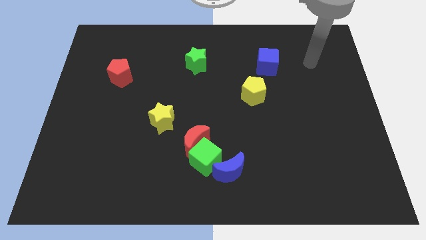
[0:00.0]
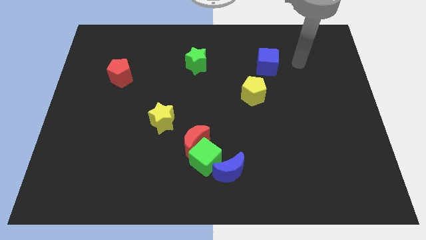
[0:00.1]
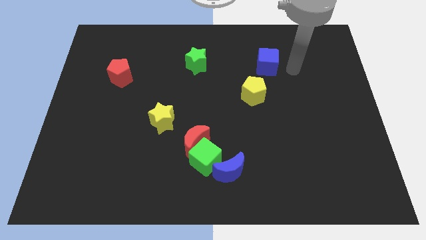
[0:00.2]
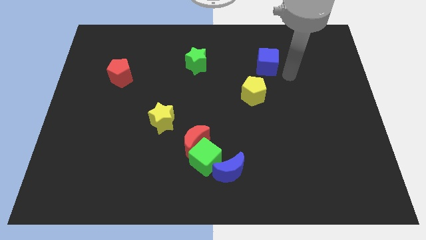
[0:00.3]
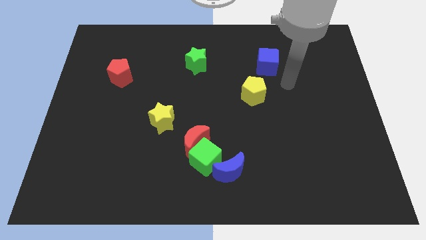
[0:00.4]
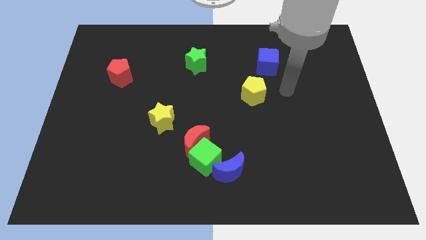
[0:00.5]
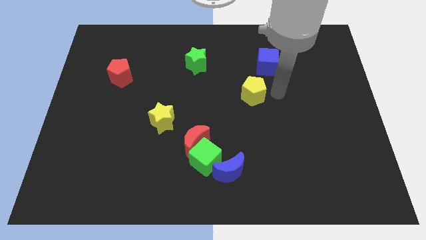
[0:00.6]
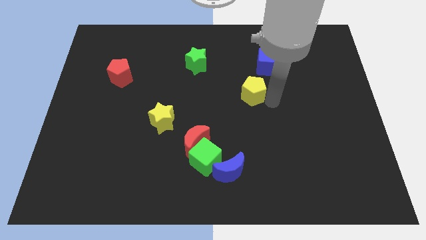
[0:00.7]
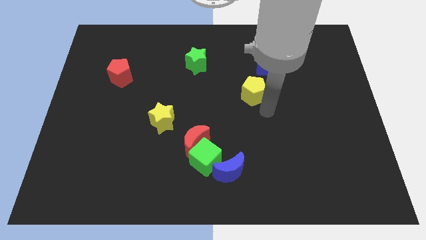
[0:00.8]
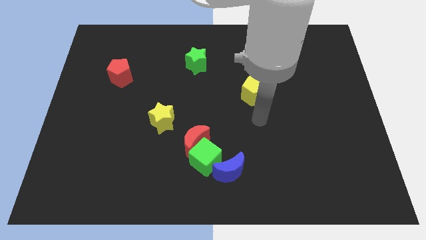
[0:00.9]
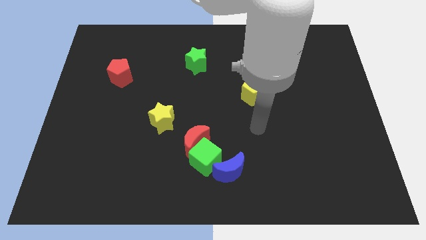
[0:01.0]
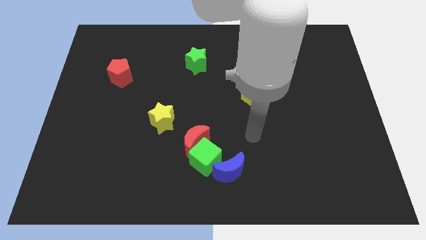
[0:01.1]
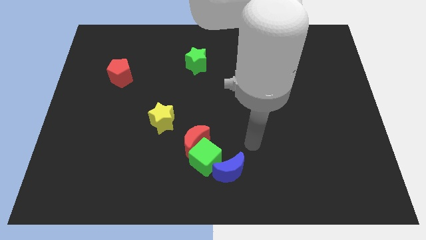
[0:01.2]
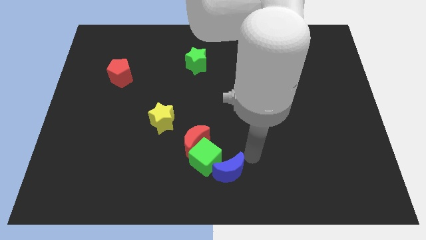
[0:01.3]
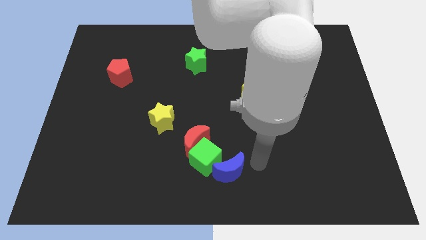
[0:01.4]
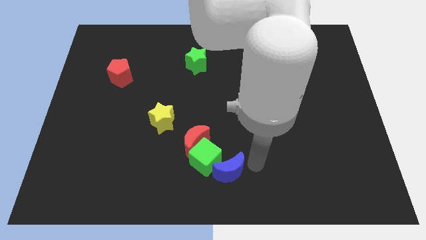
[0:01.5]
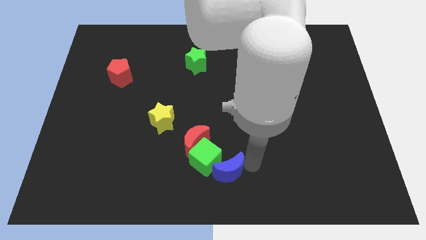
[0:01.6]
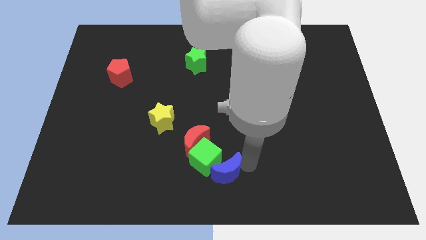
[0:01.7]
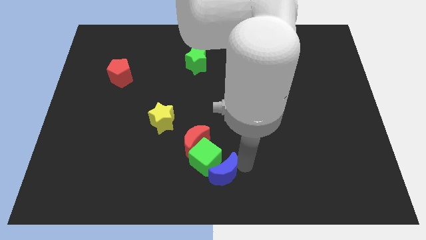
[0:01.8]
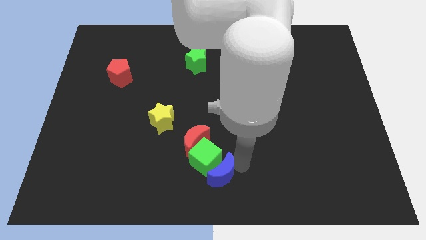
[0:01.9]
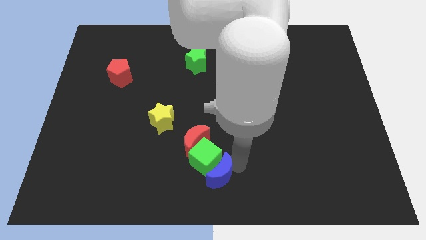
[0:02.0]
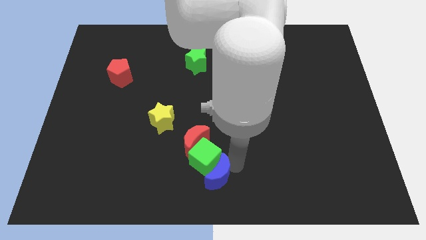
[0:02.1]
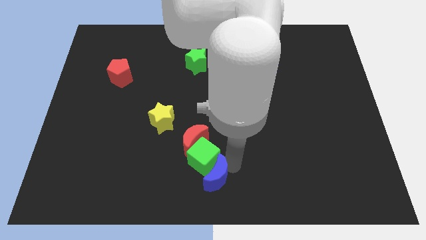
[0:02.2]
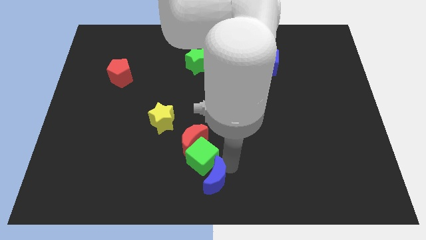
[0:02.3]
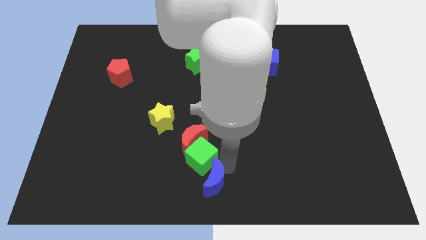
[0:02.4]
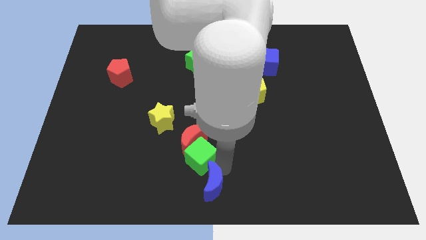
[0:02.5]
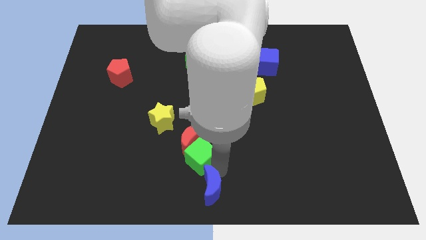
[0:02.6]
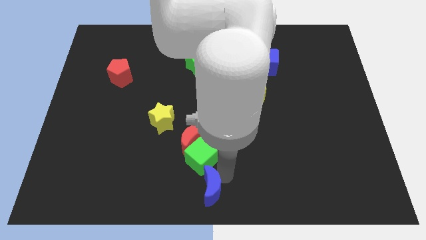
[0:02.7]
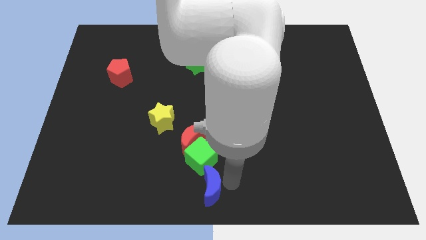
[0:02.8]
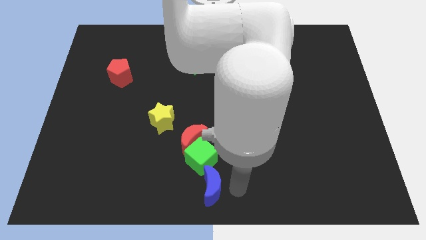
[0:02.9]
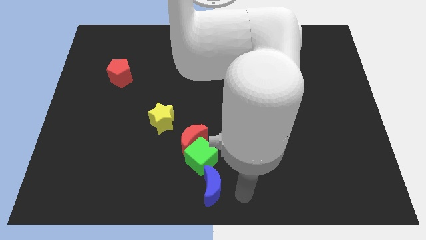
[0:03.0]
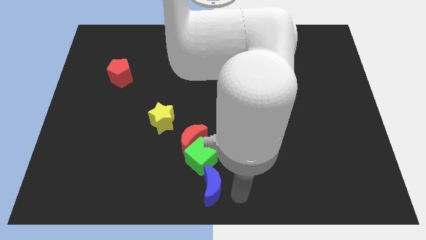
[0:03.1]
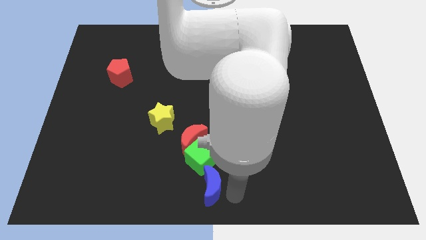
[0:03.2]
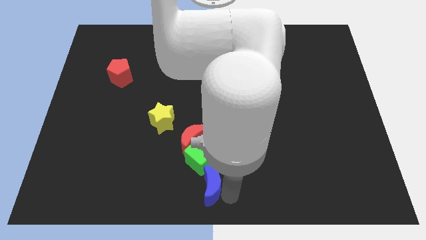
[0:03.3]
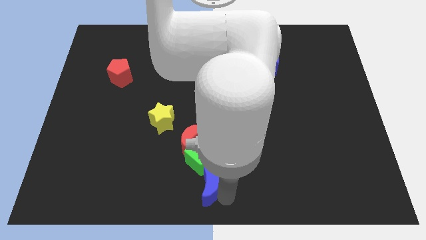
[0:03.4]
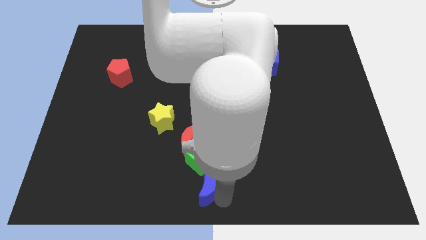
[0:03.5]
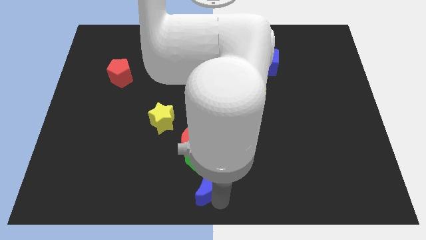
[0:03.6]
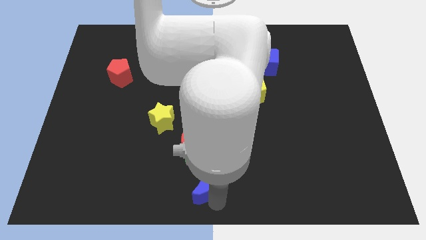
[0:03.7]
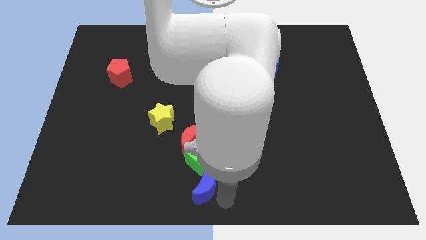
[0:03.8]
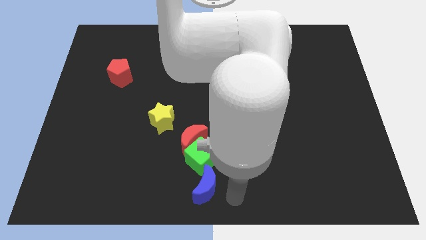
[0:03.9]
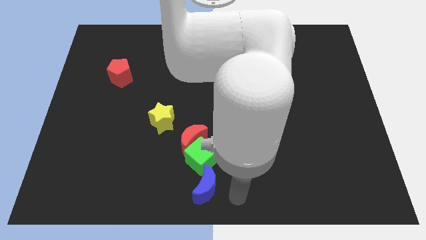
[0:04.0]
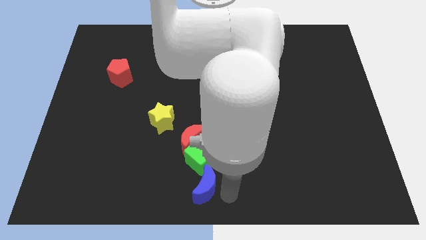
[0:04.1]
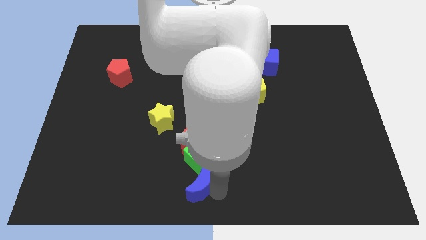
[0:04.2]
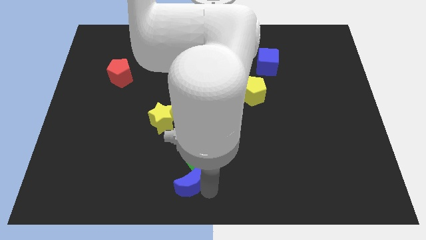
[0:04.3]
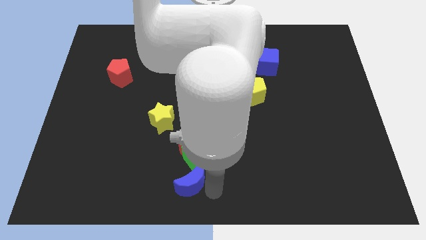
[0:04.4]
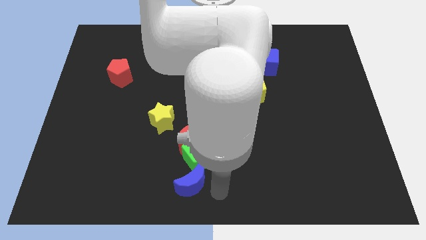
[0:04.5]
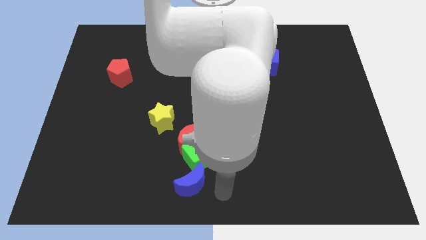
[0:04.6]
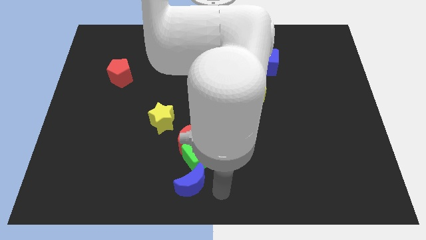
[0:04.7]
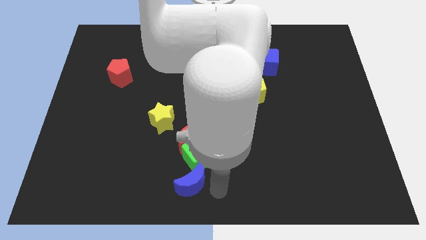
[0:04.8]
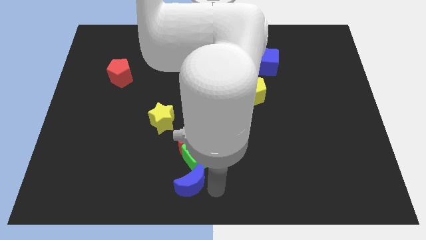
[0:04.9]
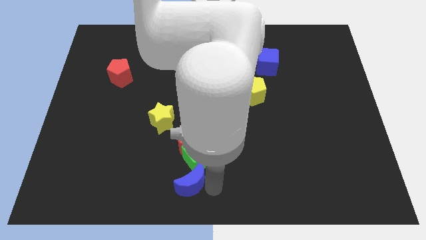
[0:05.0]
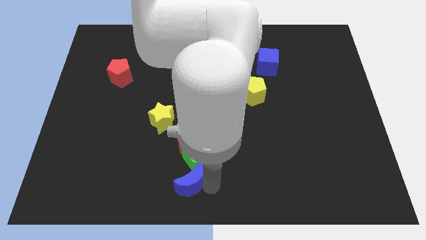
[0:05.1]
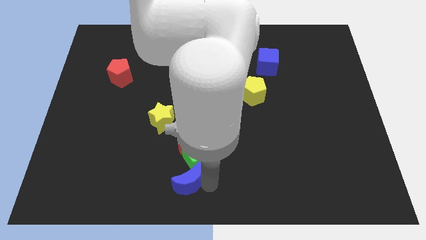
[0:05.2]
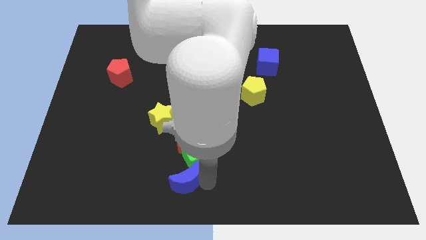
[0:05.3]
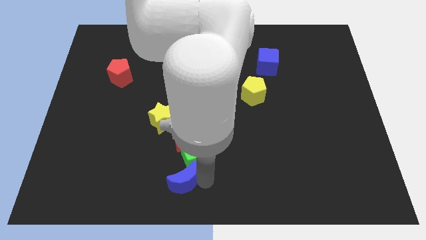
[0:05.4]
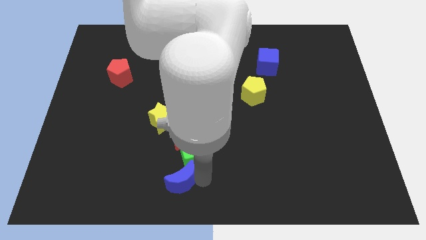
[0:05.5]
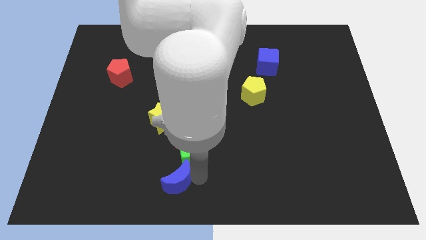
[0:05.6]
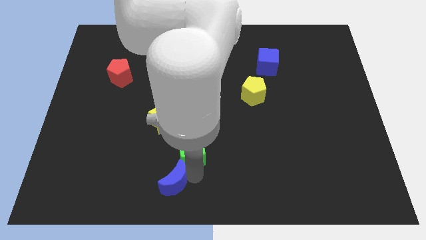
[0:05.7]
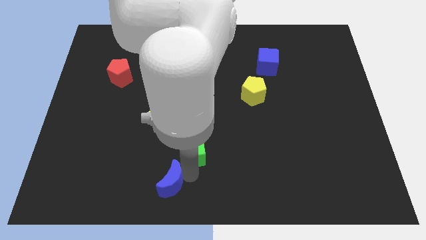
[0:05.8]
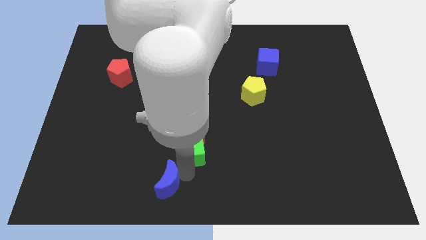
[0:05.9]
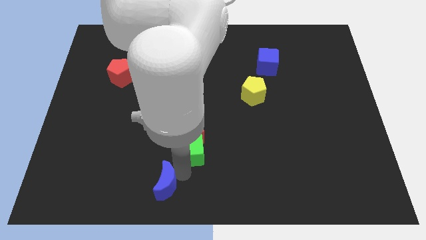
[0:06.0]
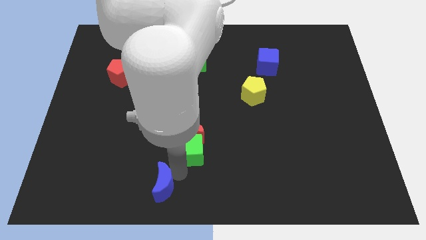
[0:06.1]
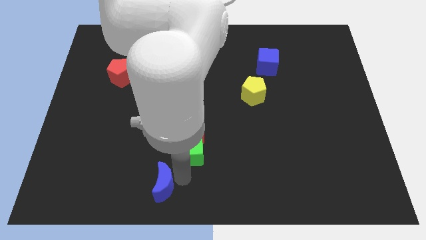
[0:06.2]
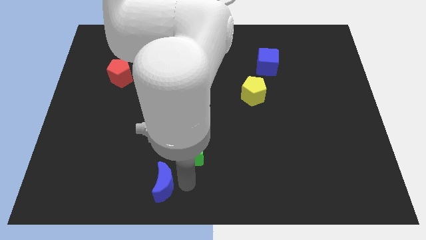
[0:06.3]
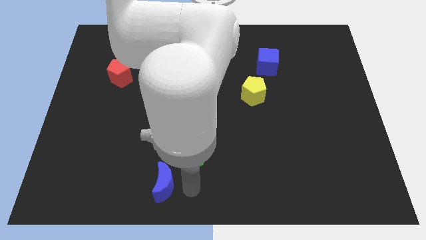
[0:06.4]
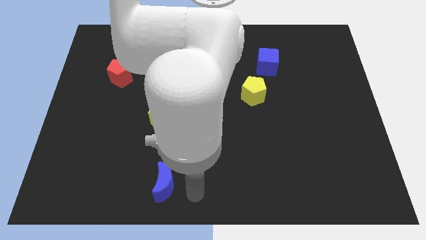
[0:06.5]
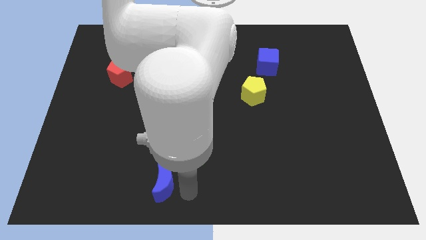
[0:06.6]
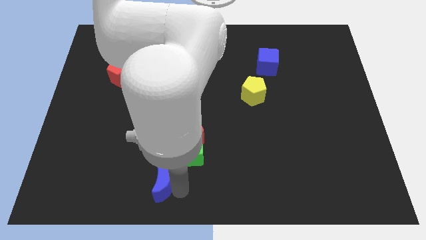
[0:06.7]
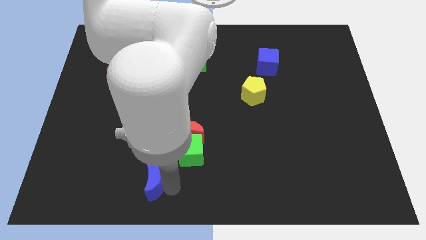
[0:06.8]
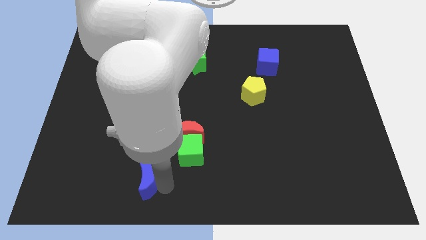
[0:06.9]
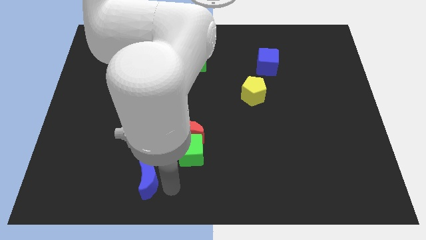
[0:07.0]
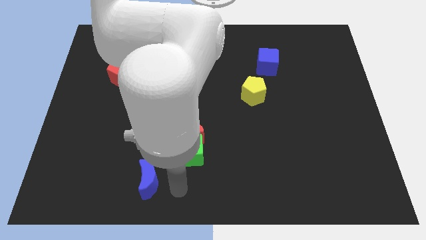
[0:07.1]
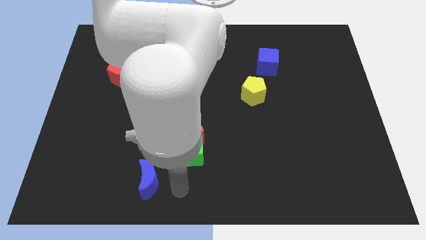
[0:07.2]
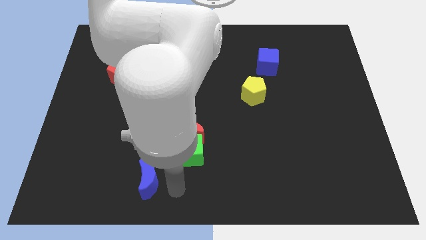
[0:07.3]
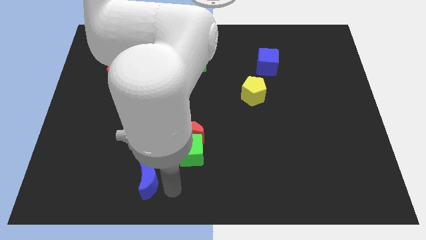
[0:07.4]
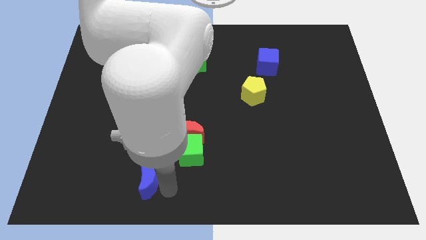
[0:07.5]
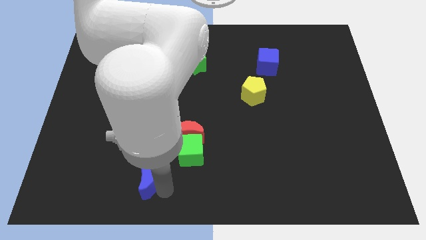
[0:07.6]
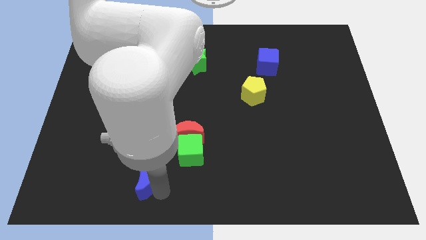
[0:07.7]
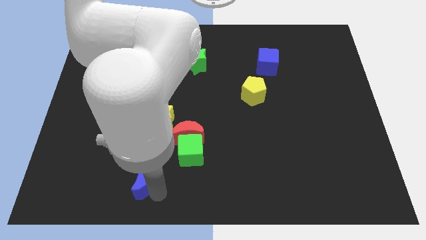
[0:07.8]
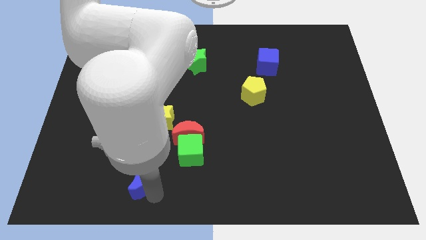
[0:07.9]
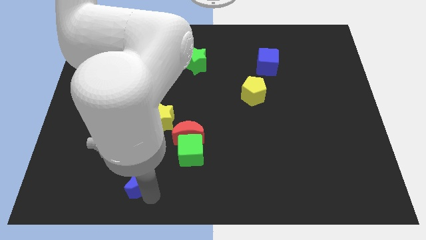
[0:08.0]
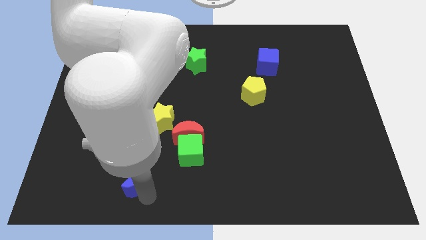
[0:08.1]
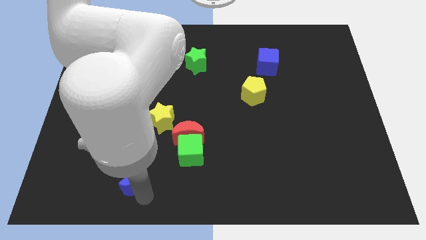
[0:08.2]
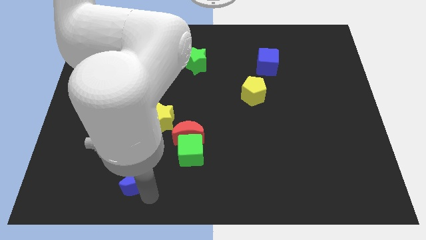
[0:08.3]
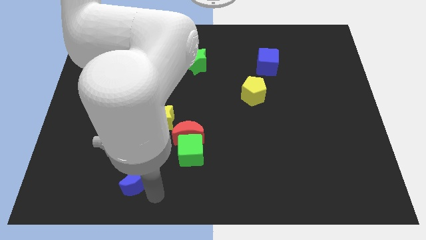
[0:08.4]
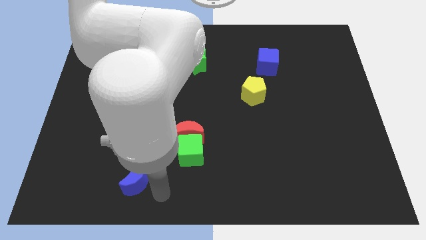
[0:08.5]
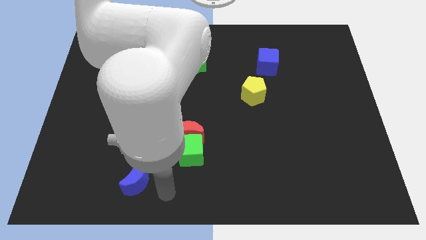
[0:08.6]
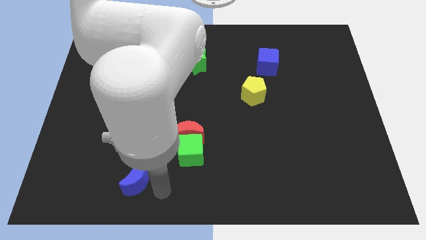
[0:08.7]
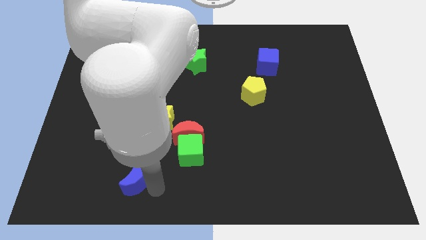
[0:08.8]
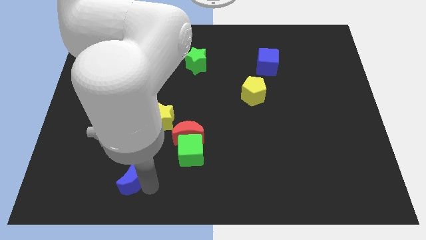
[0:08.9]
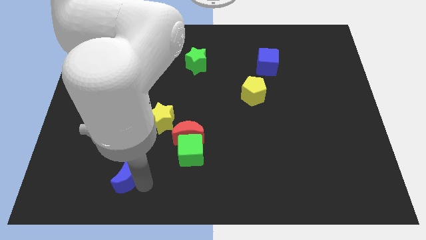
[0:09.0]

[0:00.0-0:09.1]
push the blue moon to the left
